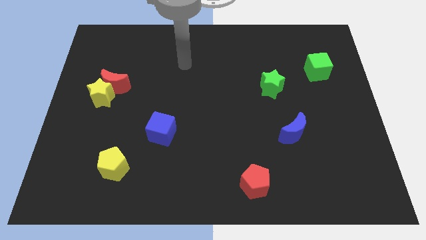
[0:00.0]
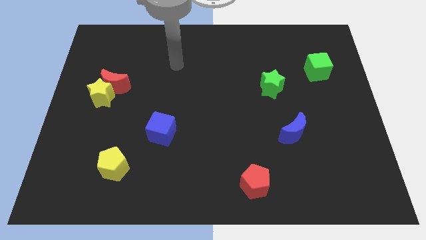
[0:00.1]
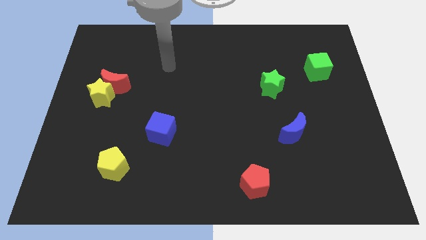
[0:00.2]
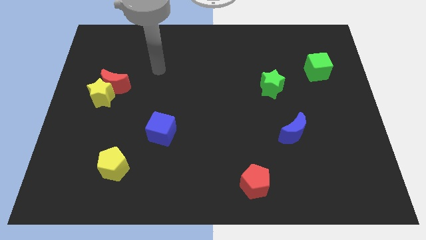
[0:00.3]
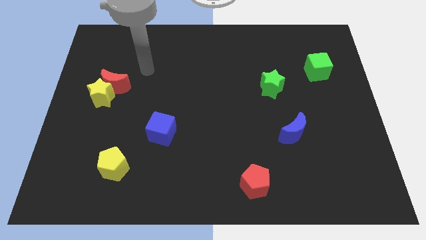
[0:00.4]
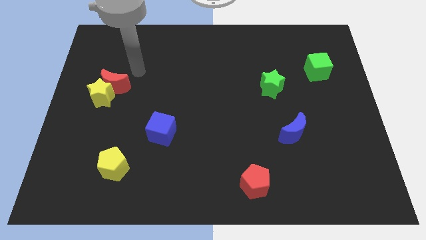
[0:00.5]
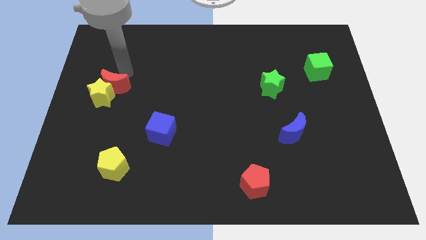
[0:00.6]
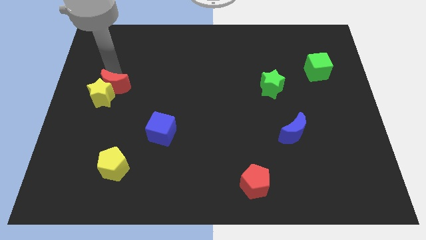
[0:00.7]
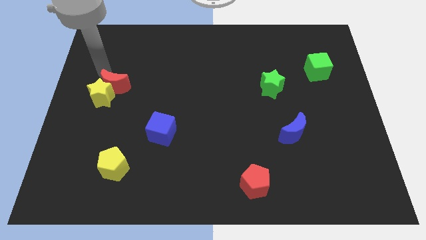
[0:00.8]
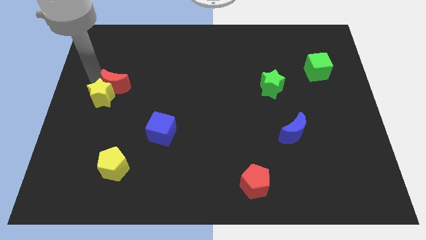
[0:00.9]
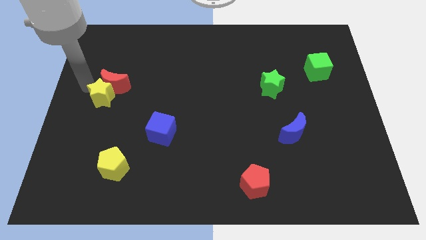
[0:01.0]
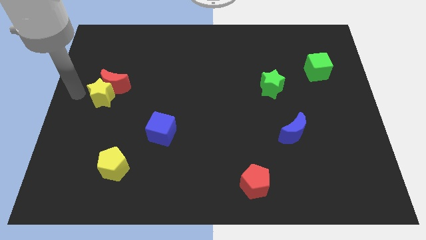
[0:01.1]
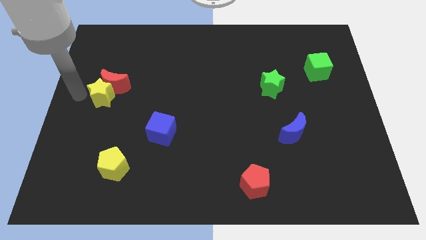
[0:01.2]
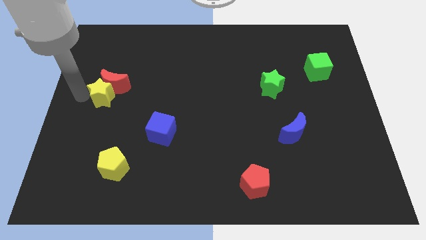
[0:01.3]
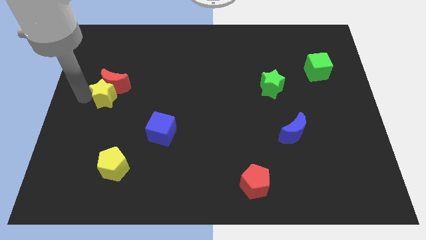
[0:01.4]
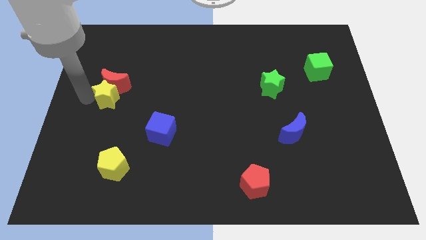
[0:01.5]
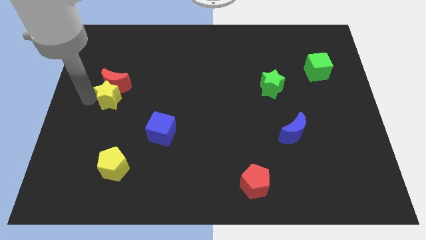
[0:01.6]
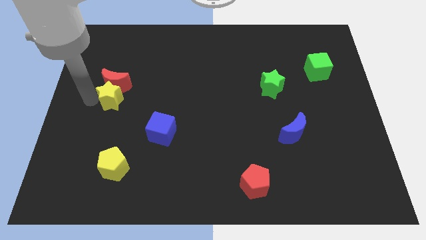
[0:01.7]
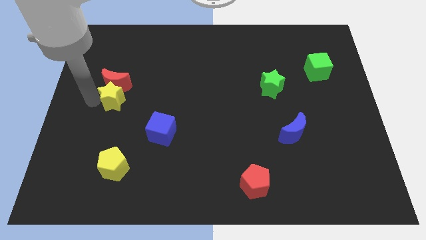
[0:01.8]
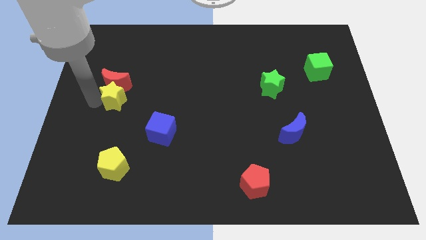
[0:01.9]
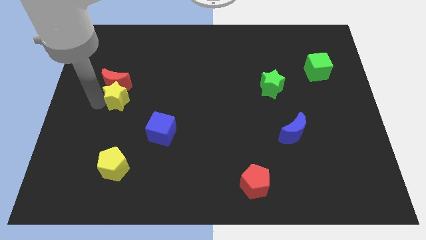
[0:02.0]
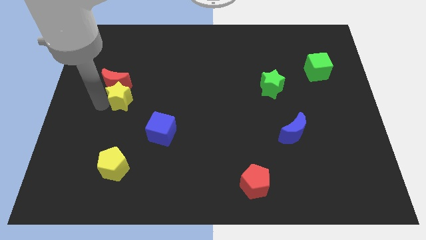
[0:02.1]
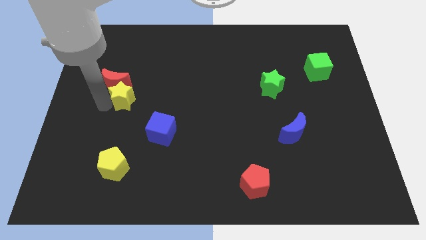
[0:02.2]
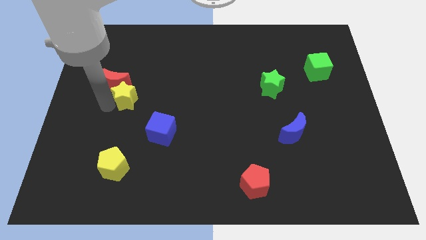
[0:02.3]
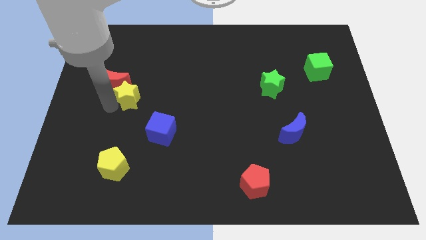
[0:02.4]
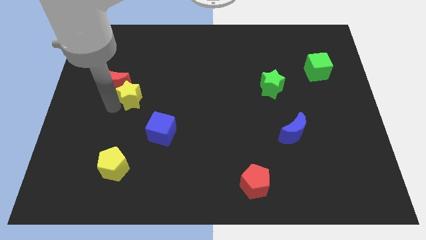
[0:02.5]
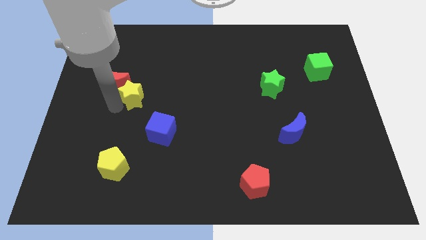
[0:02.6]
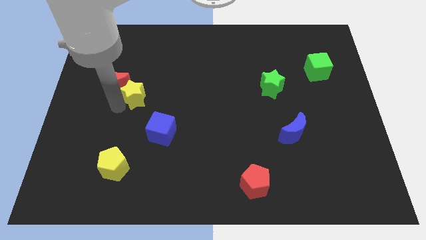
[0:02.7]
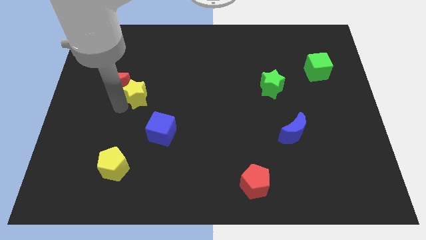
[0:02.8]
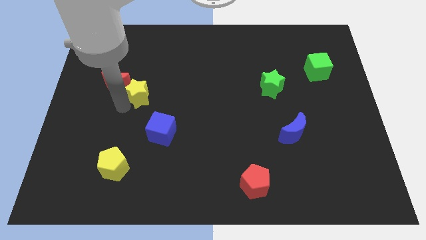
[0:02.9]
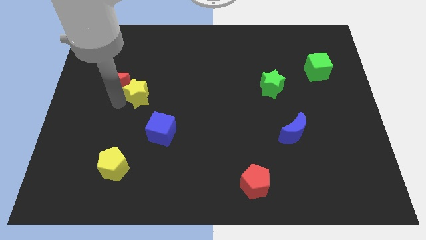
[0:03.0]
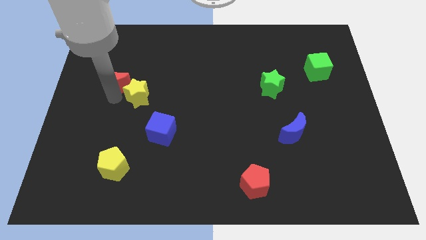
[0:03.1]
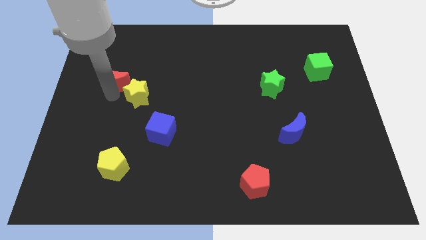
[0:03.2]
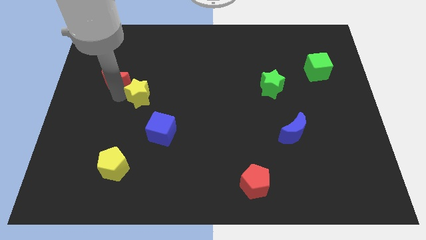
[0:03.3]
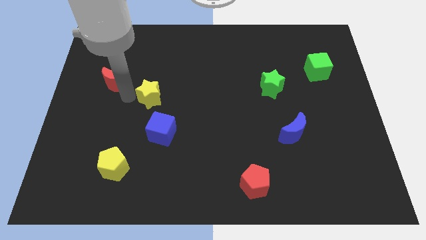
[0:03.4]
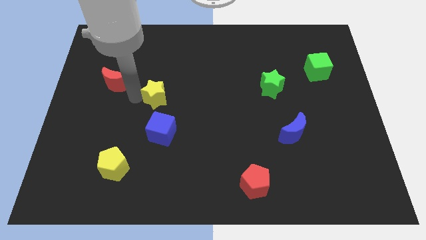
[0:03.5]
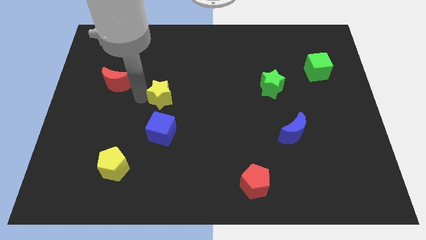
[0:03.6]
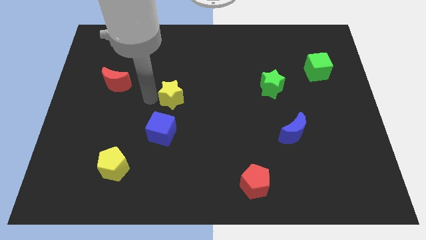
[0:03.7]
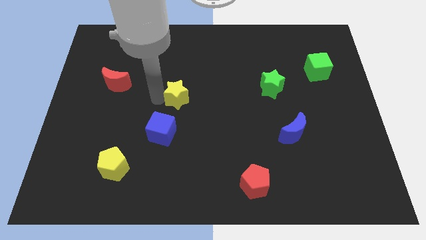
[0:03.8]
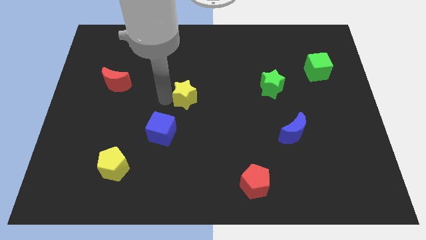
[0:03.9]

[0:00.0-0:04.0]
push the yellow star to the right

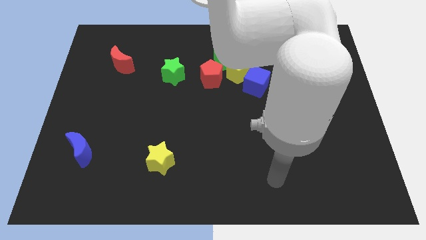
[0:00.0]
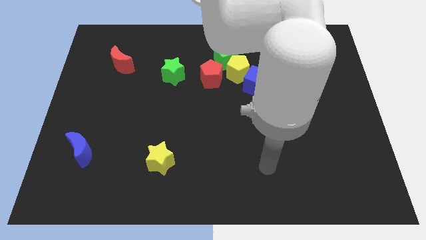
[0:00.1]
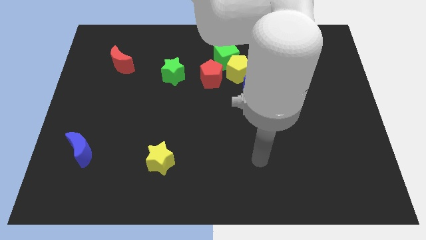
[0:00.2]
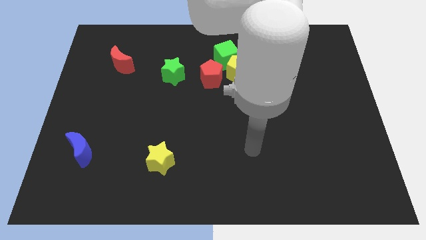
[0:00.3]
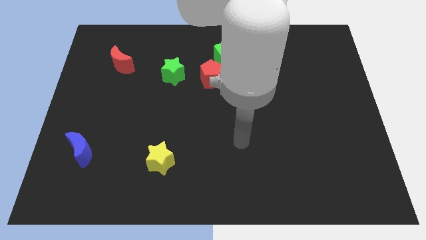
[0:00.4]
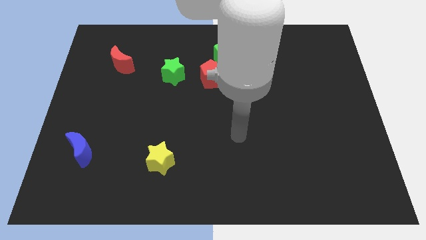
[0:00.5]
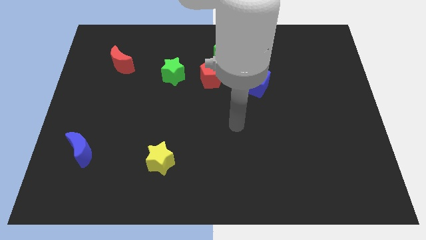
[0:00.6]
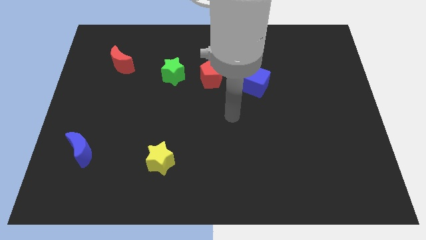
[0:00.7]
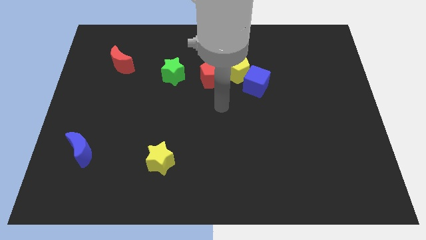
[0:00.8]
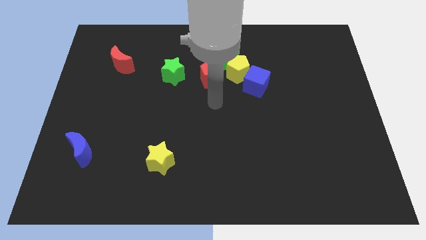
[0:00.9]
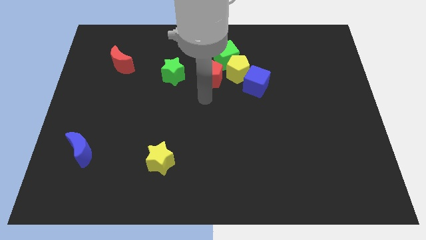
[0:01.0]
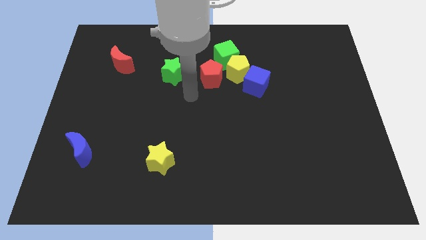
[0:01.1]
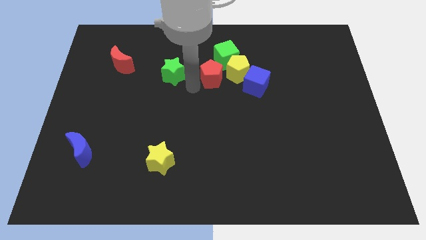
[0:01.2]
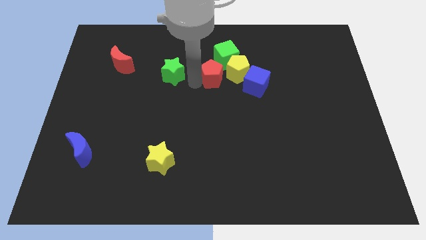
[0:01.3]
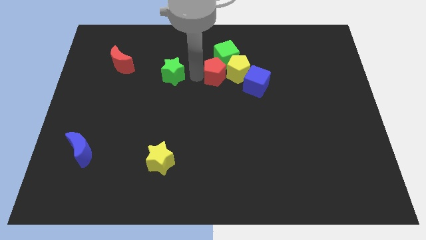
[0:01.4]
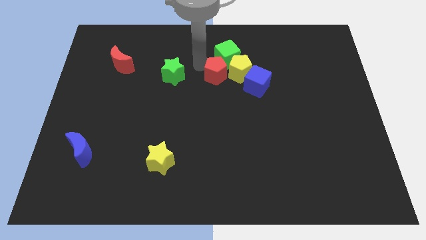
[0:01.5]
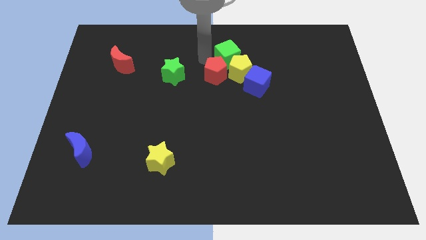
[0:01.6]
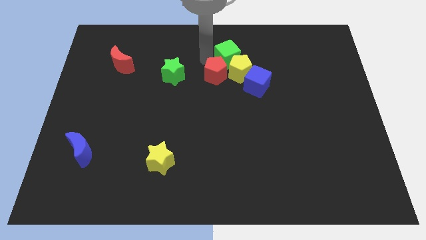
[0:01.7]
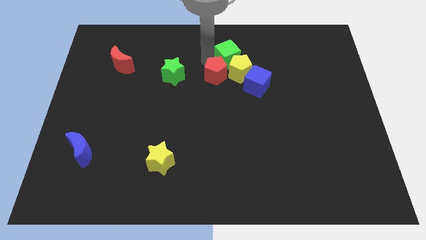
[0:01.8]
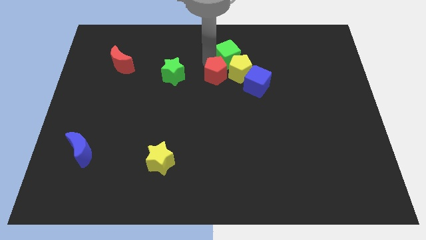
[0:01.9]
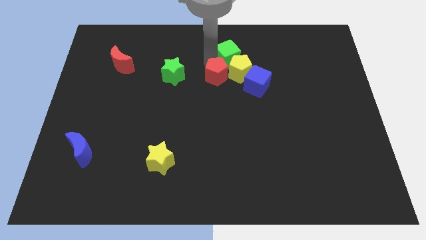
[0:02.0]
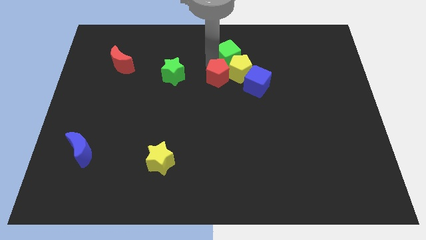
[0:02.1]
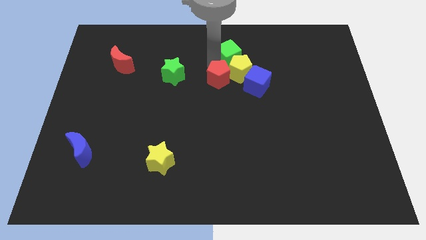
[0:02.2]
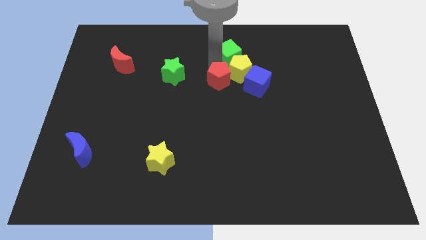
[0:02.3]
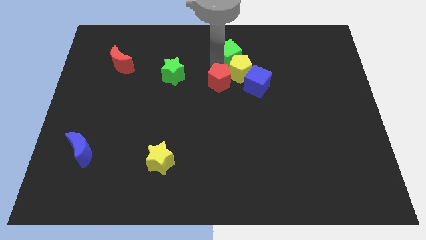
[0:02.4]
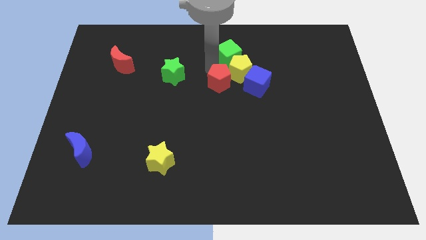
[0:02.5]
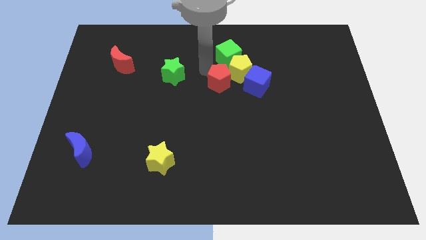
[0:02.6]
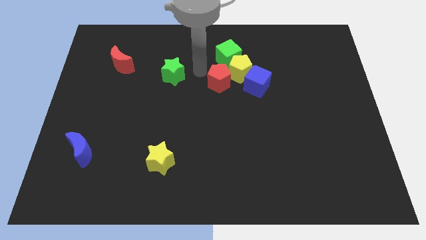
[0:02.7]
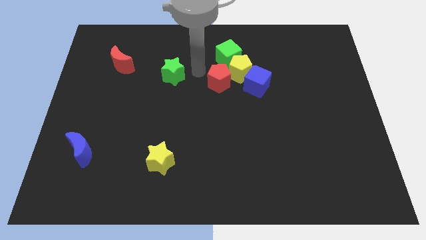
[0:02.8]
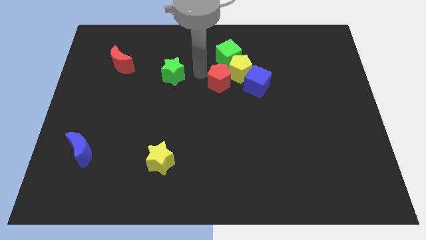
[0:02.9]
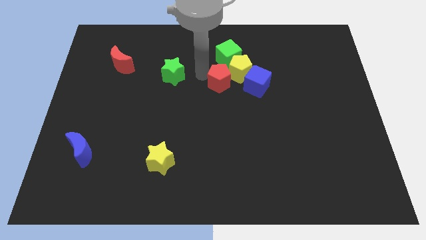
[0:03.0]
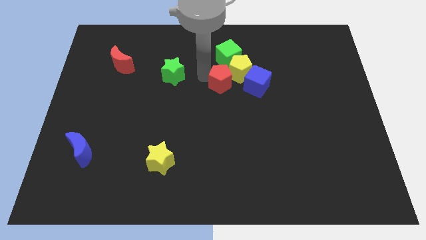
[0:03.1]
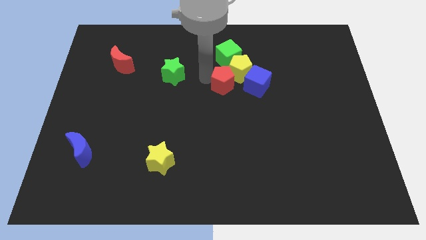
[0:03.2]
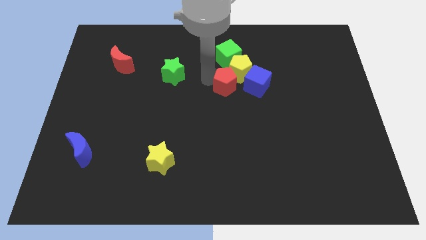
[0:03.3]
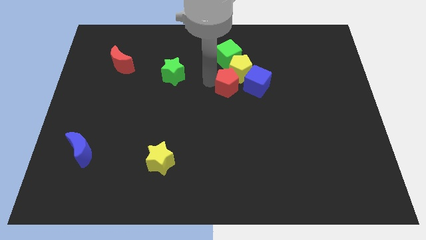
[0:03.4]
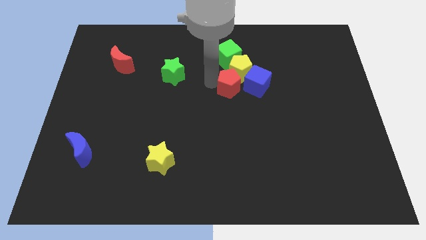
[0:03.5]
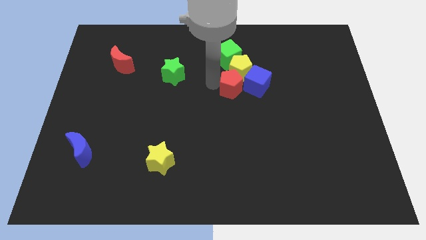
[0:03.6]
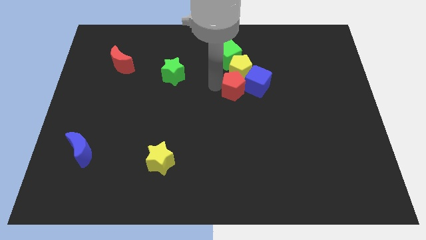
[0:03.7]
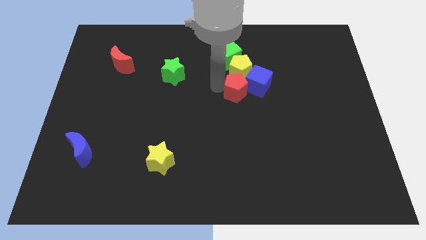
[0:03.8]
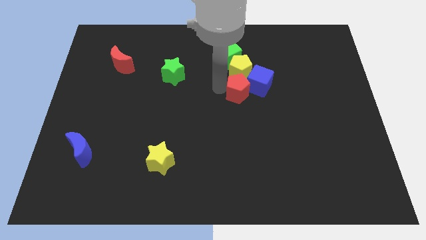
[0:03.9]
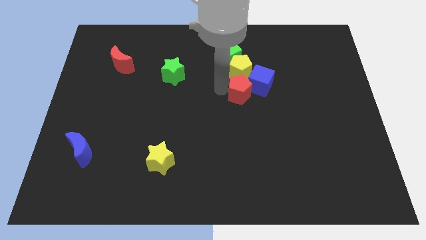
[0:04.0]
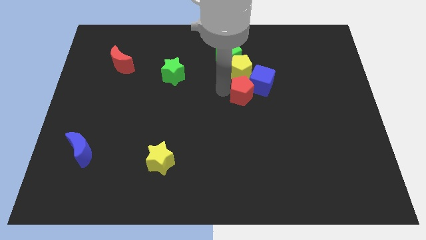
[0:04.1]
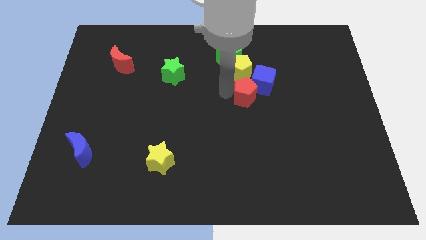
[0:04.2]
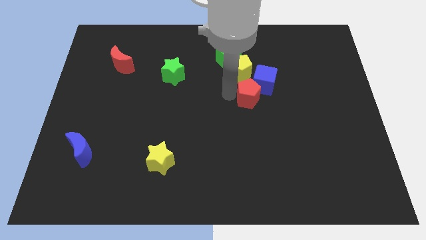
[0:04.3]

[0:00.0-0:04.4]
slide the red pentagon somewhat right
